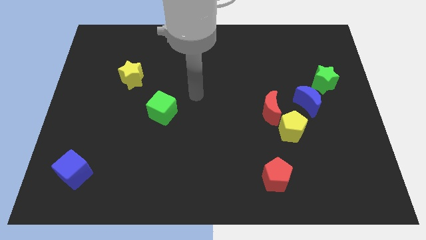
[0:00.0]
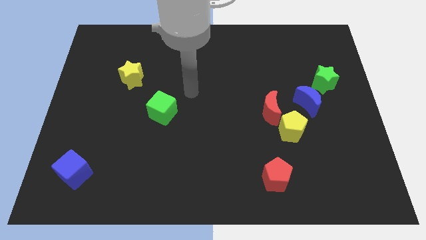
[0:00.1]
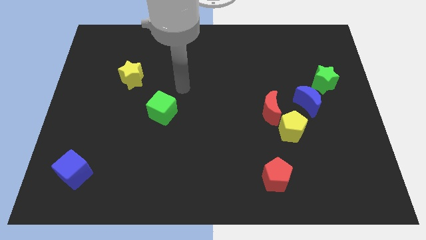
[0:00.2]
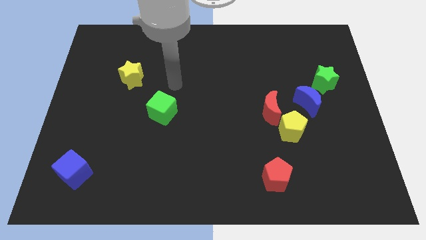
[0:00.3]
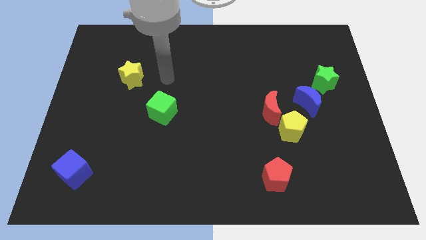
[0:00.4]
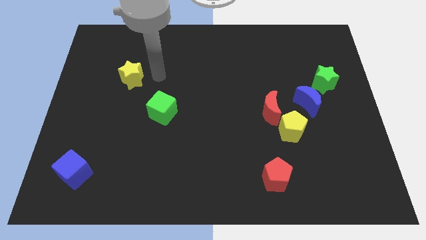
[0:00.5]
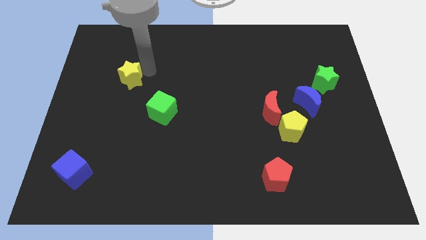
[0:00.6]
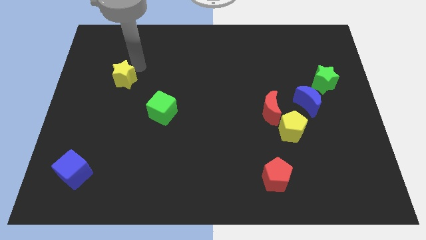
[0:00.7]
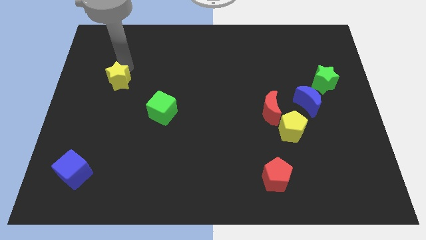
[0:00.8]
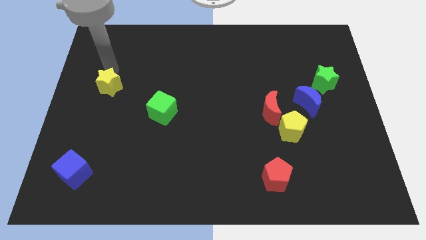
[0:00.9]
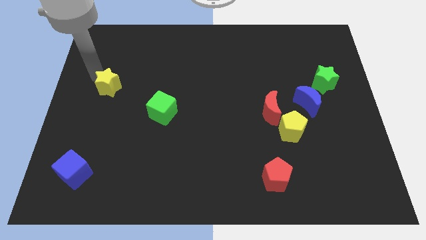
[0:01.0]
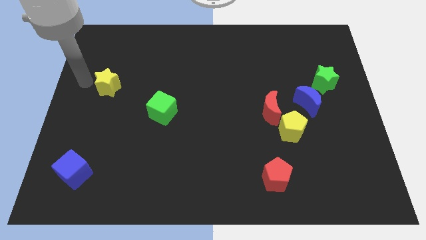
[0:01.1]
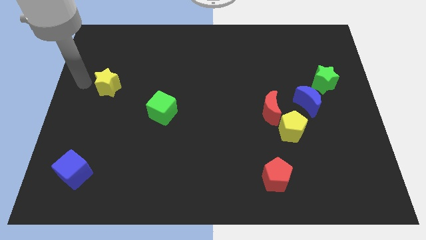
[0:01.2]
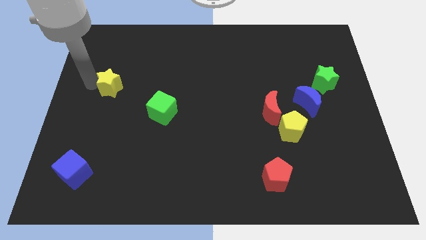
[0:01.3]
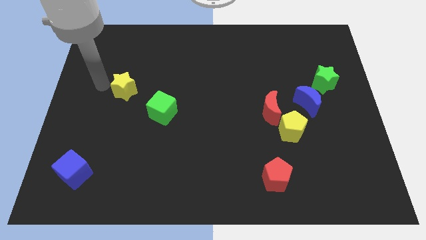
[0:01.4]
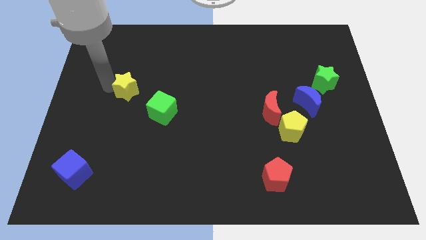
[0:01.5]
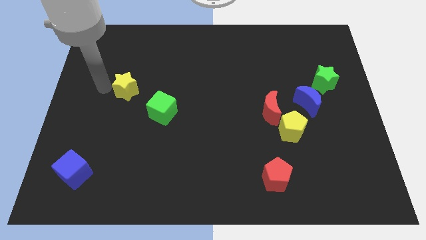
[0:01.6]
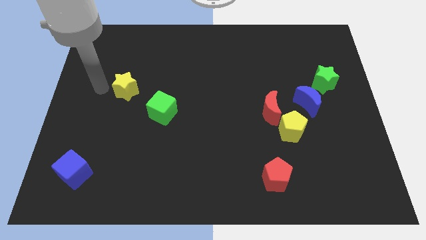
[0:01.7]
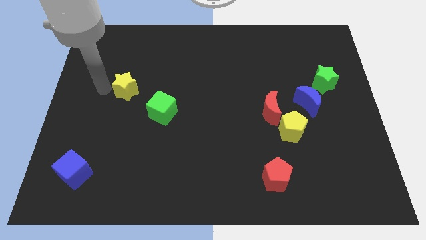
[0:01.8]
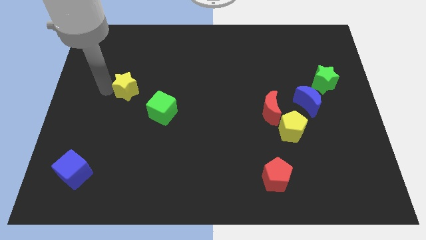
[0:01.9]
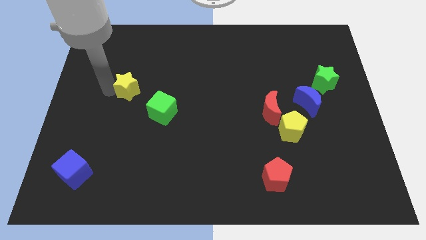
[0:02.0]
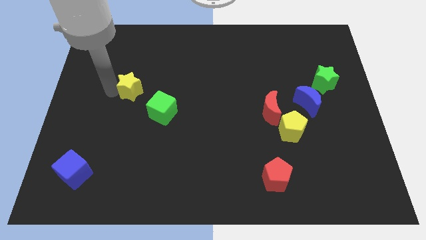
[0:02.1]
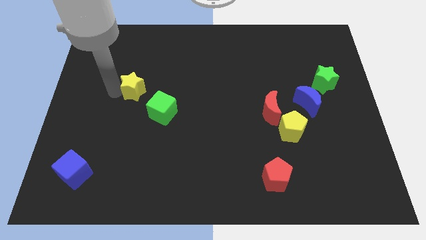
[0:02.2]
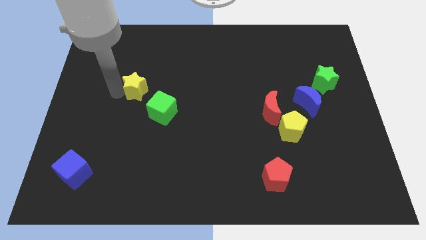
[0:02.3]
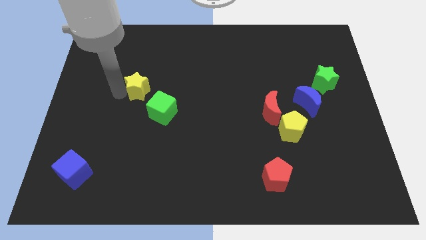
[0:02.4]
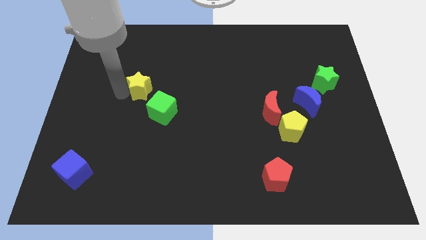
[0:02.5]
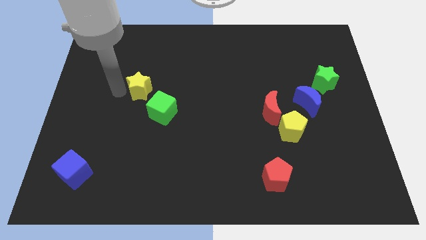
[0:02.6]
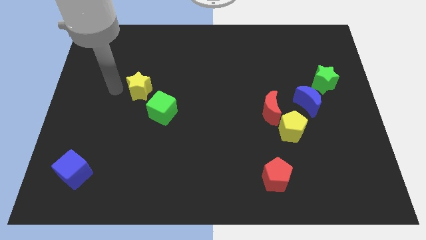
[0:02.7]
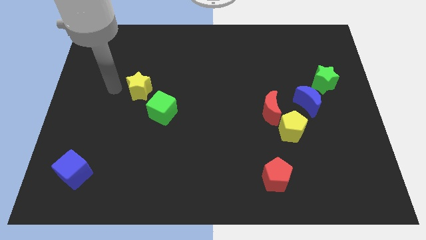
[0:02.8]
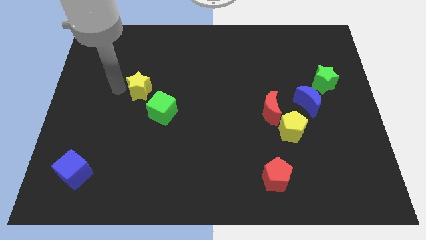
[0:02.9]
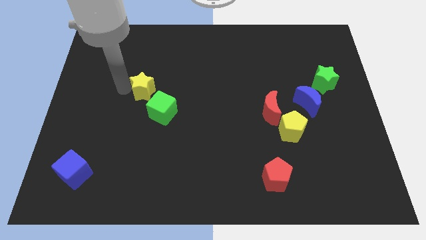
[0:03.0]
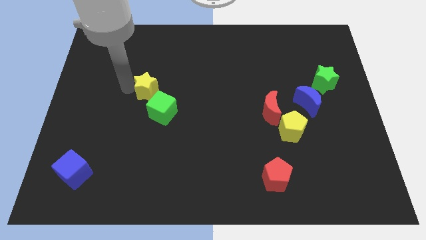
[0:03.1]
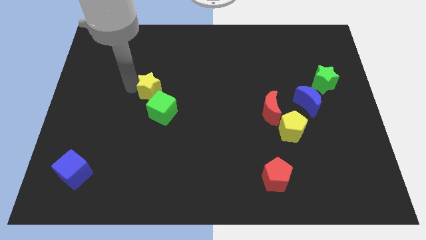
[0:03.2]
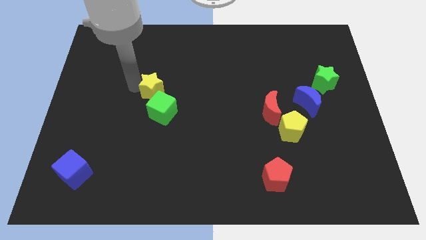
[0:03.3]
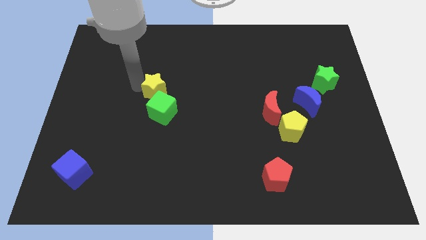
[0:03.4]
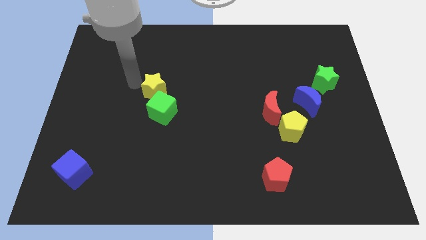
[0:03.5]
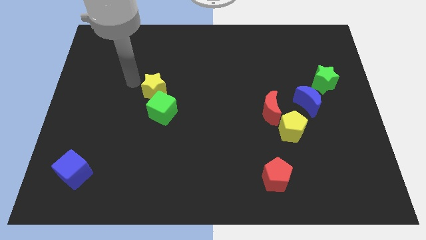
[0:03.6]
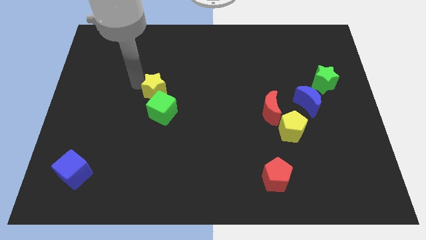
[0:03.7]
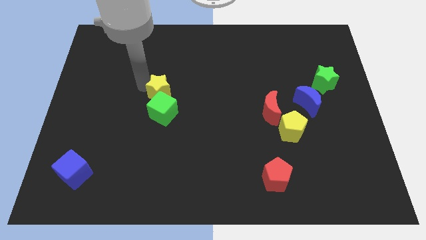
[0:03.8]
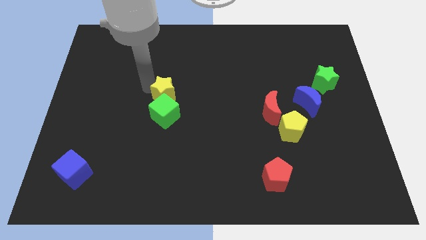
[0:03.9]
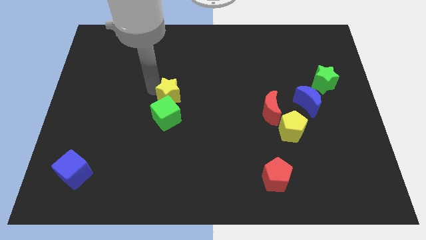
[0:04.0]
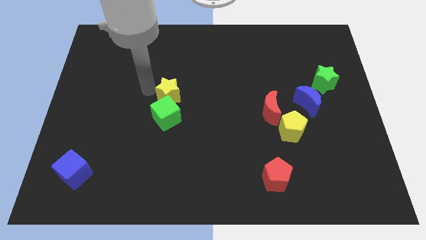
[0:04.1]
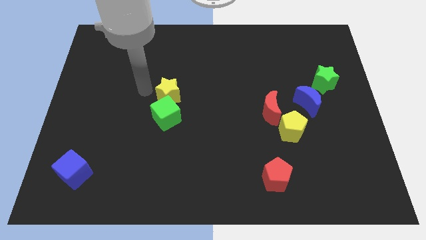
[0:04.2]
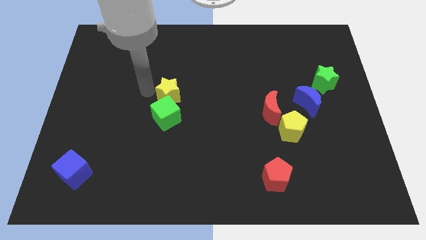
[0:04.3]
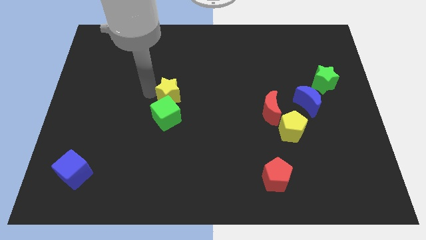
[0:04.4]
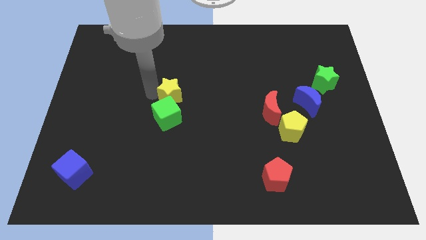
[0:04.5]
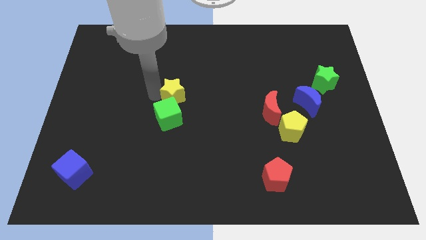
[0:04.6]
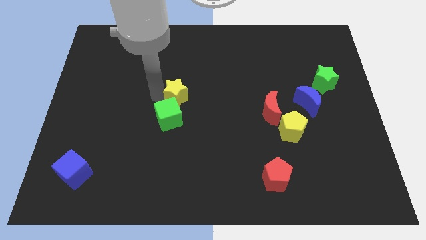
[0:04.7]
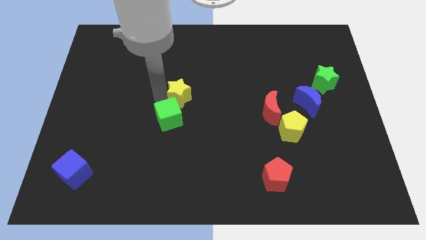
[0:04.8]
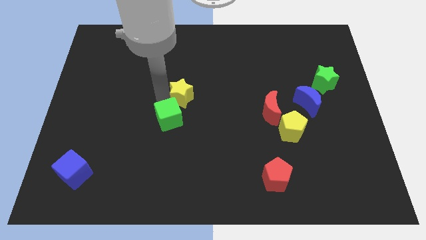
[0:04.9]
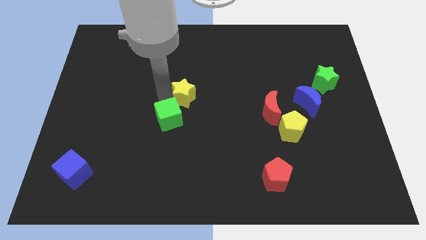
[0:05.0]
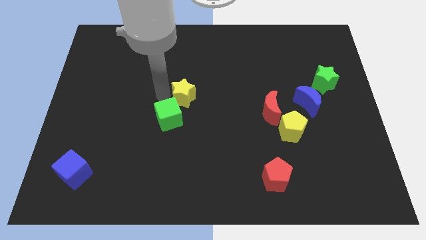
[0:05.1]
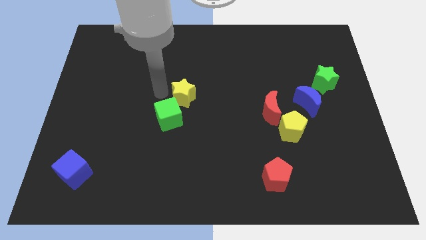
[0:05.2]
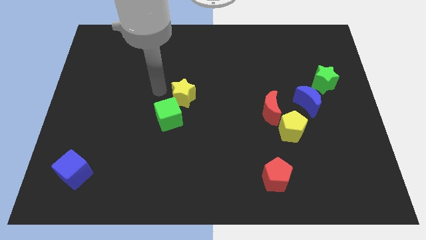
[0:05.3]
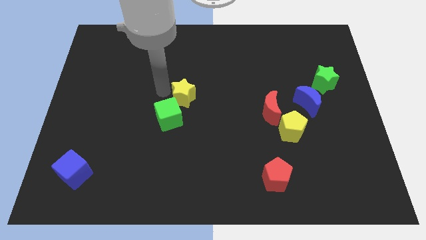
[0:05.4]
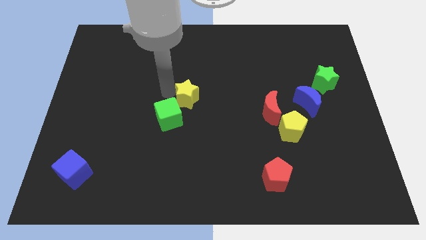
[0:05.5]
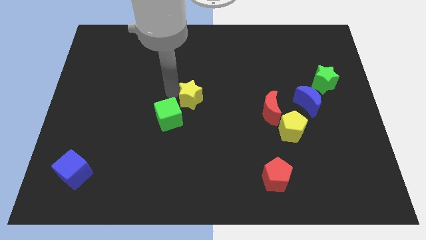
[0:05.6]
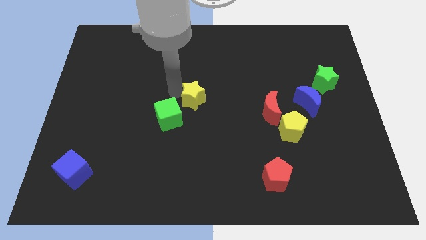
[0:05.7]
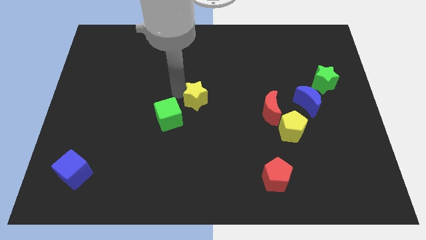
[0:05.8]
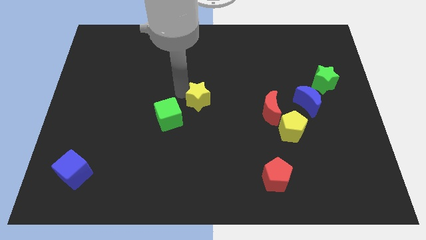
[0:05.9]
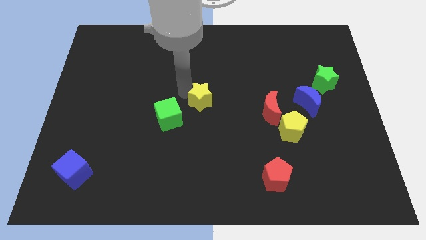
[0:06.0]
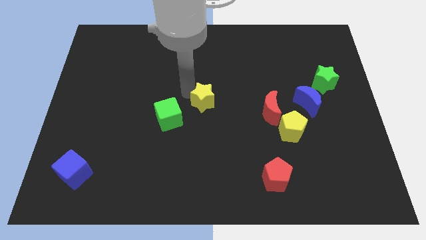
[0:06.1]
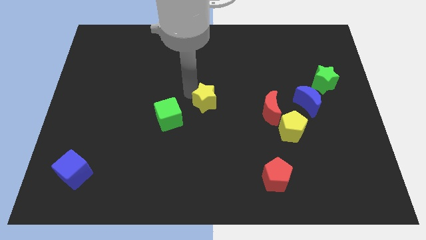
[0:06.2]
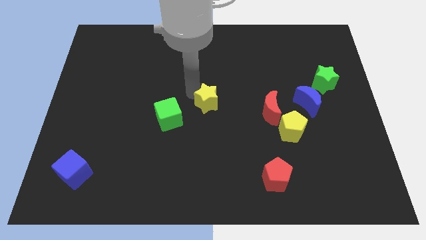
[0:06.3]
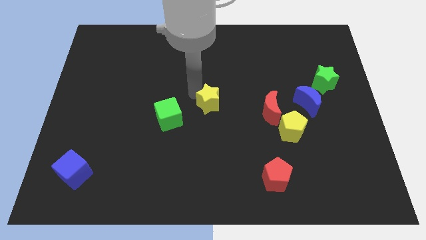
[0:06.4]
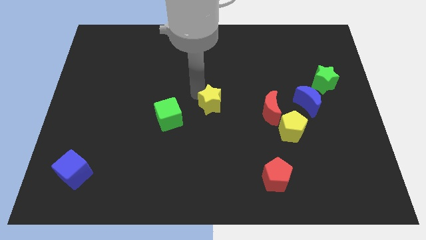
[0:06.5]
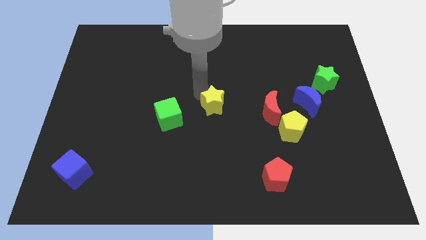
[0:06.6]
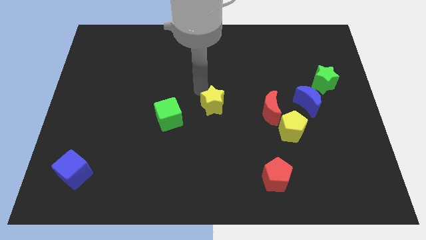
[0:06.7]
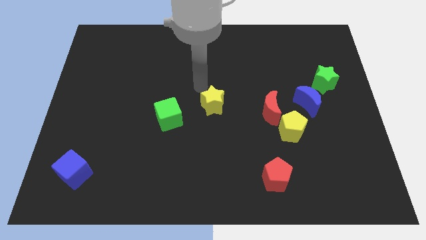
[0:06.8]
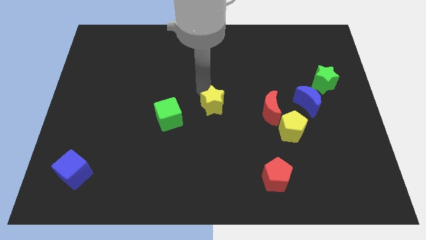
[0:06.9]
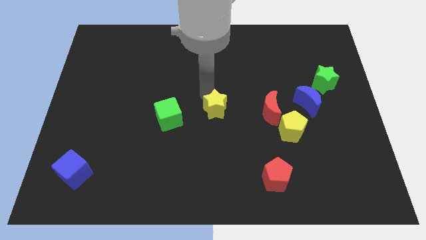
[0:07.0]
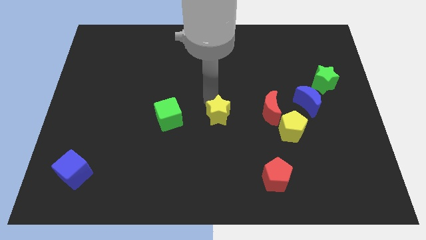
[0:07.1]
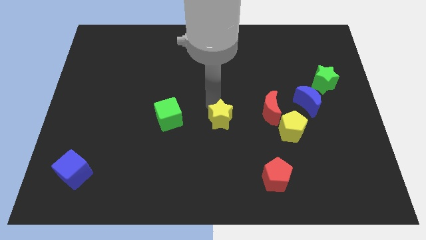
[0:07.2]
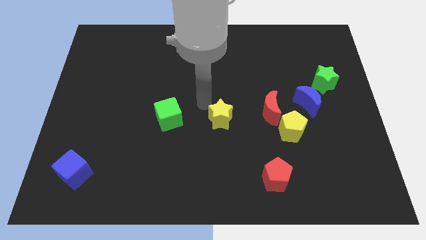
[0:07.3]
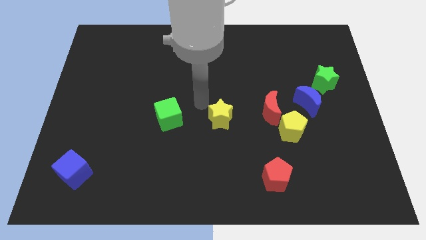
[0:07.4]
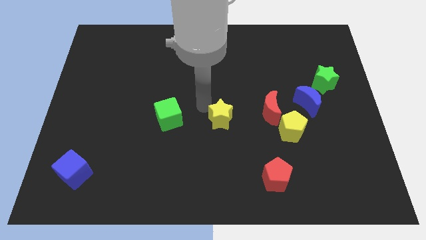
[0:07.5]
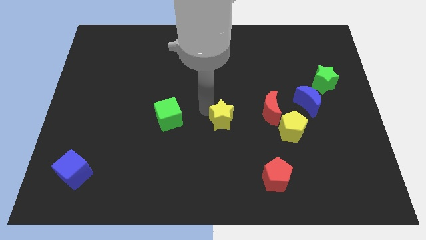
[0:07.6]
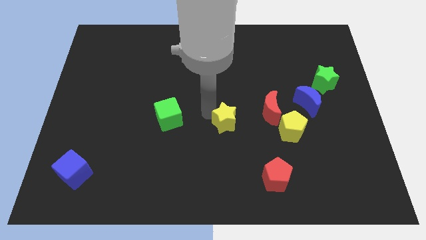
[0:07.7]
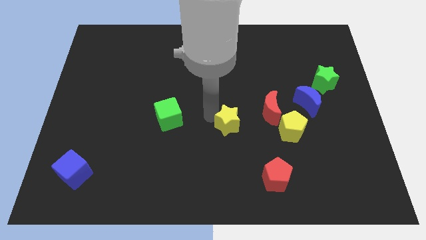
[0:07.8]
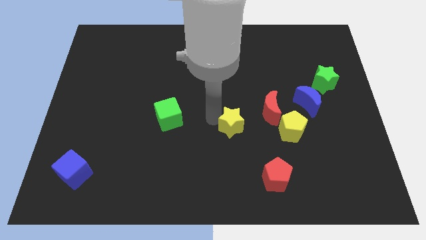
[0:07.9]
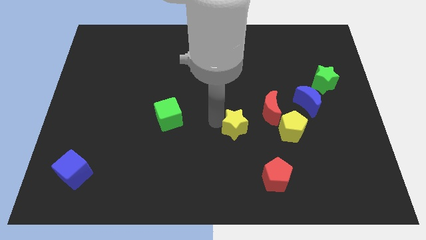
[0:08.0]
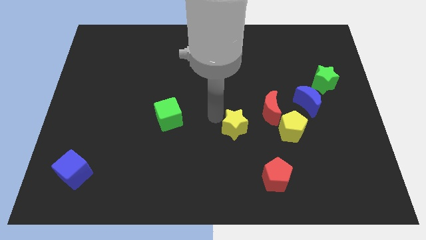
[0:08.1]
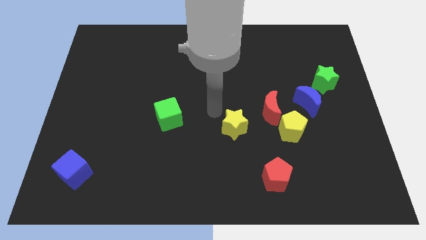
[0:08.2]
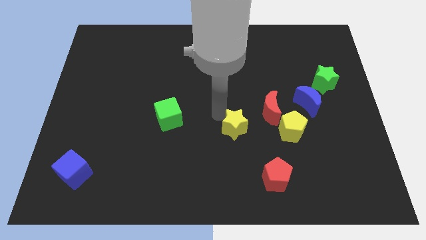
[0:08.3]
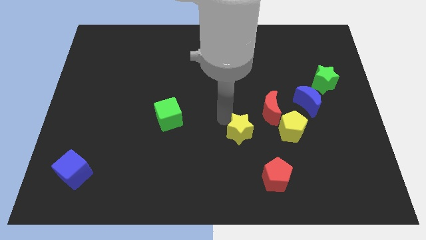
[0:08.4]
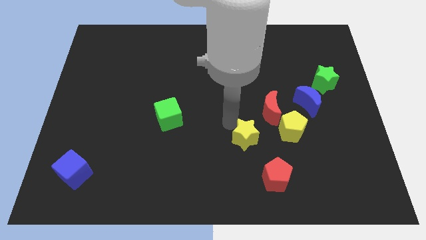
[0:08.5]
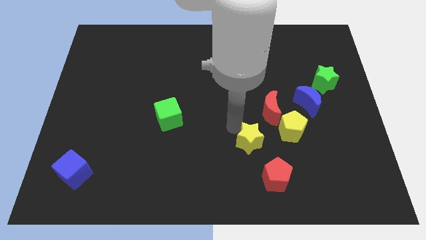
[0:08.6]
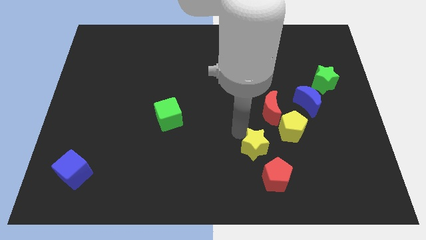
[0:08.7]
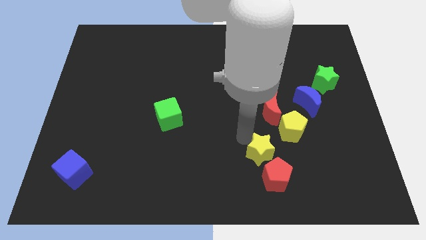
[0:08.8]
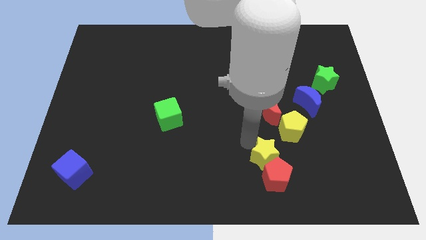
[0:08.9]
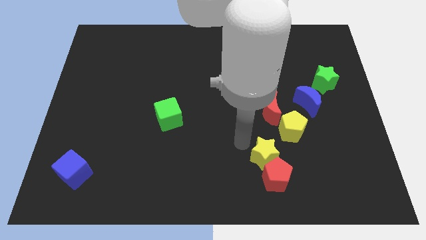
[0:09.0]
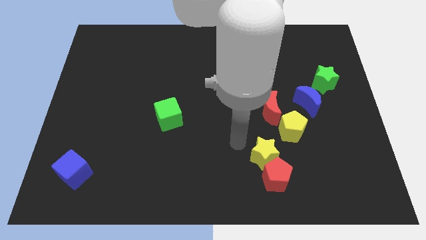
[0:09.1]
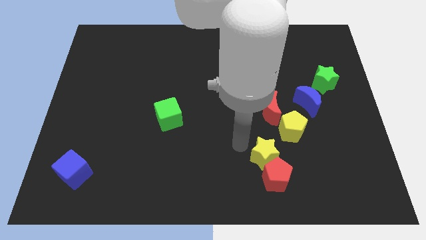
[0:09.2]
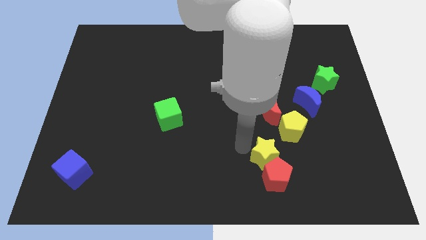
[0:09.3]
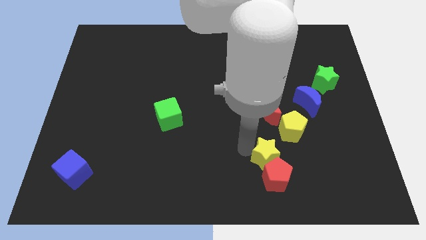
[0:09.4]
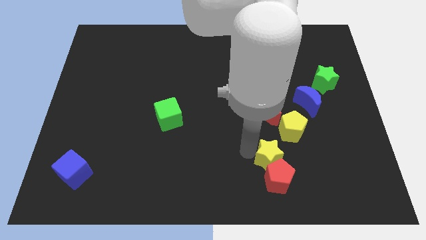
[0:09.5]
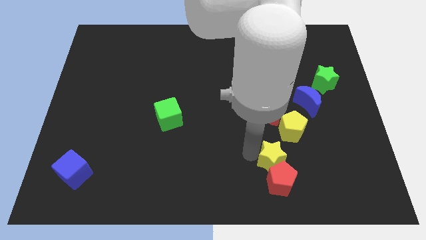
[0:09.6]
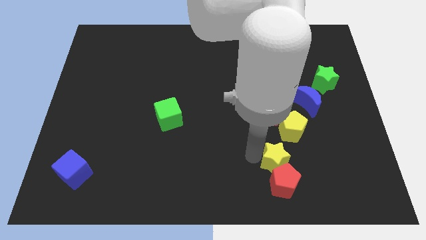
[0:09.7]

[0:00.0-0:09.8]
move the yellow star to the bottom of the yellow pentagon
